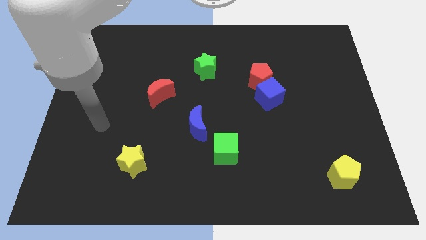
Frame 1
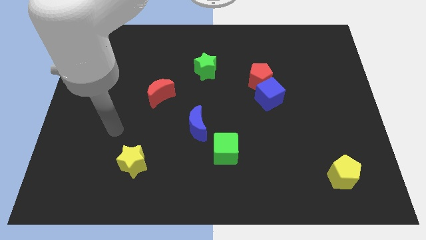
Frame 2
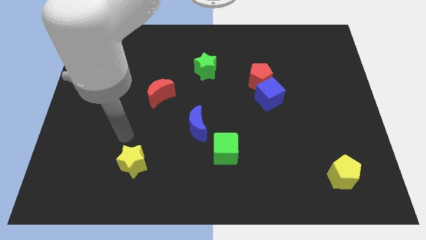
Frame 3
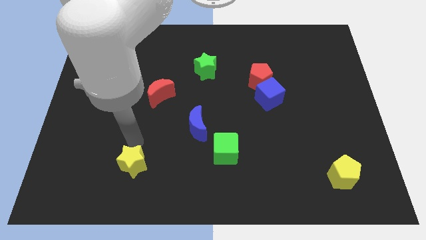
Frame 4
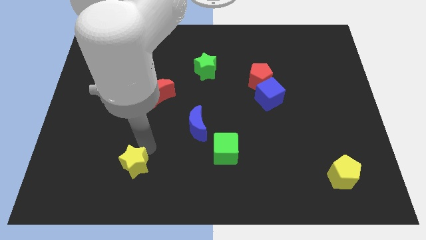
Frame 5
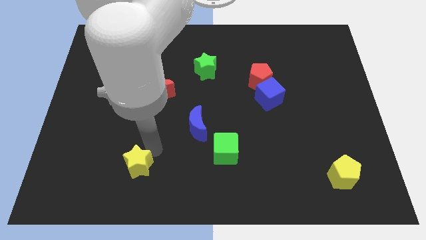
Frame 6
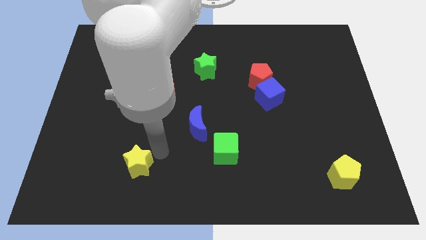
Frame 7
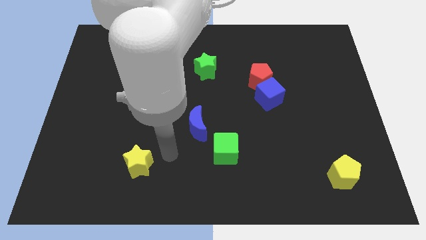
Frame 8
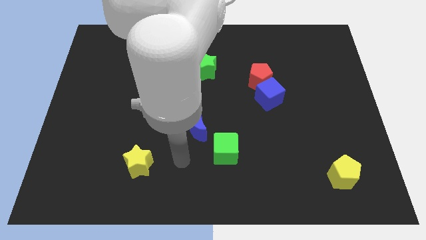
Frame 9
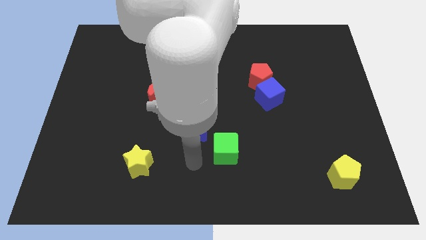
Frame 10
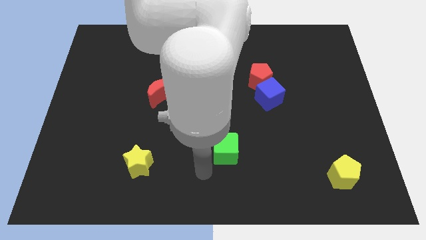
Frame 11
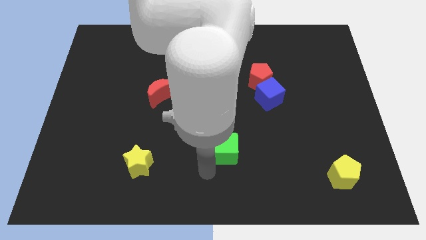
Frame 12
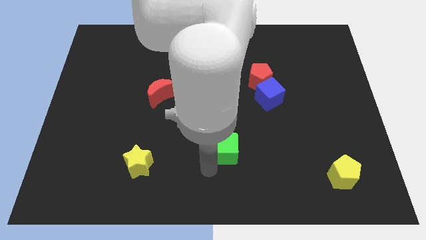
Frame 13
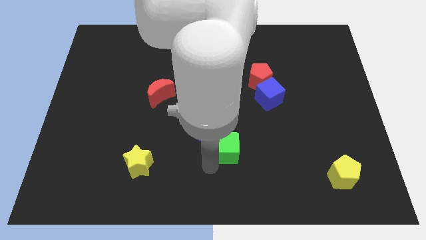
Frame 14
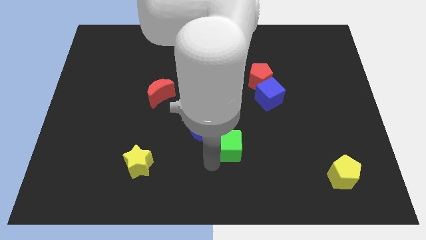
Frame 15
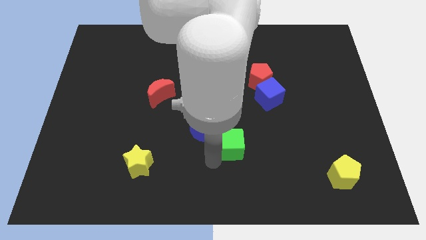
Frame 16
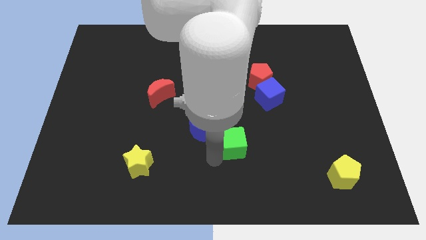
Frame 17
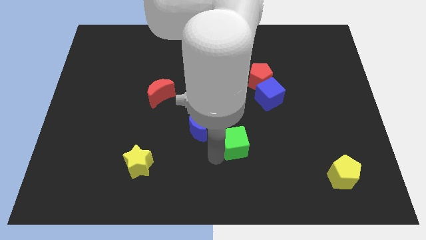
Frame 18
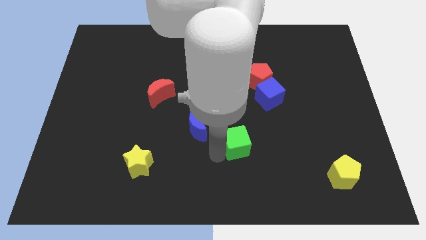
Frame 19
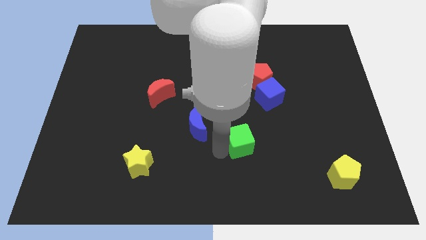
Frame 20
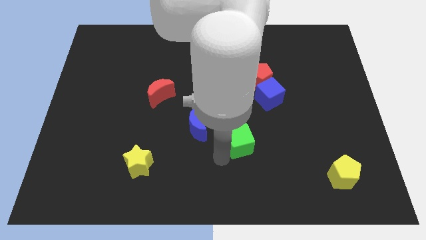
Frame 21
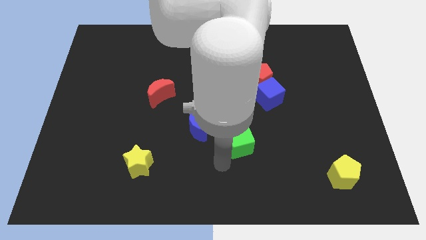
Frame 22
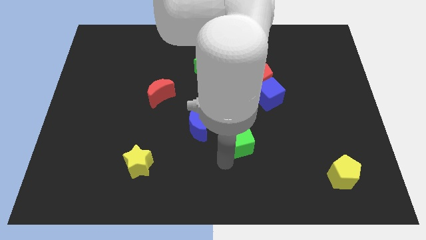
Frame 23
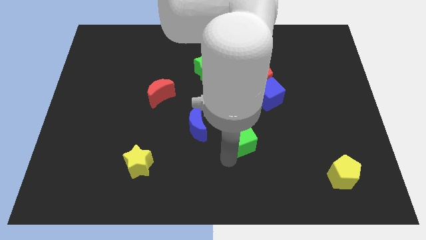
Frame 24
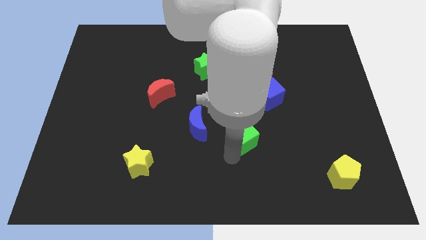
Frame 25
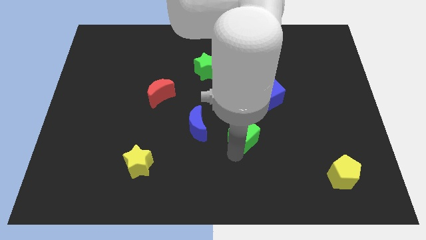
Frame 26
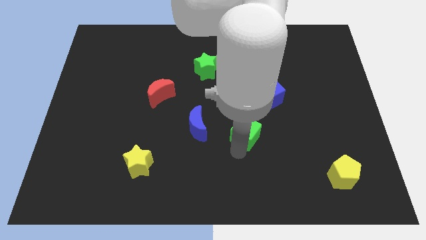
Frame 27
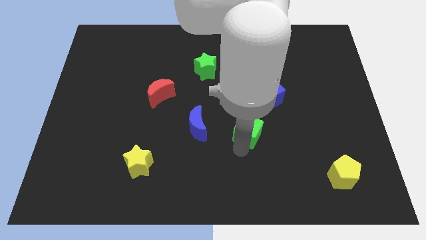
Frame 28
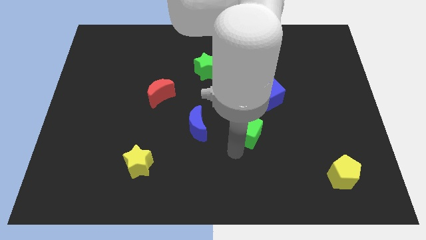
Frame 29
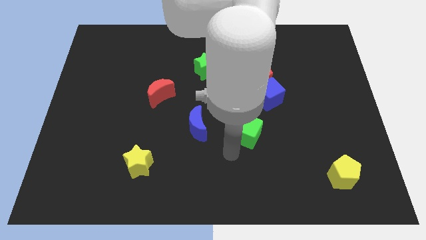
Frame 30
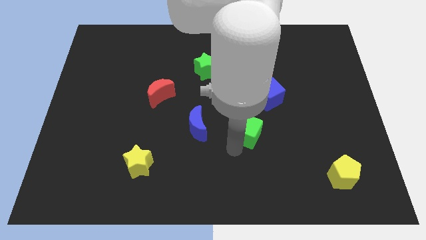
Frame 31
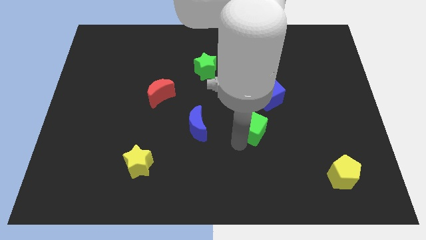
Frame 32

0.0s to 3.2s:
put the green cube to the bottom side of the red pentagon

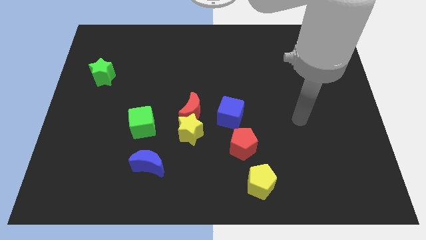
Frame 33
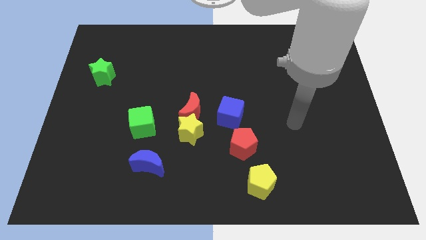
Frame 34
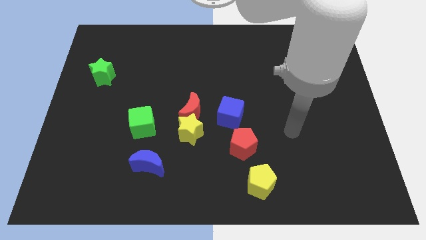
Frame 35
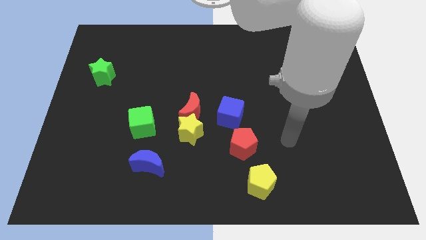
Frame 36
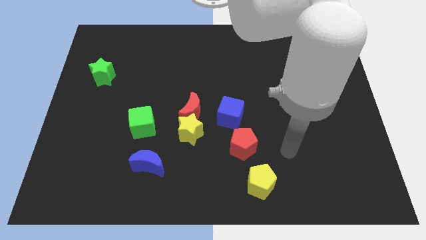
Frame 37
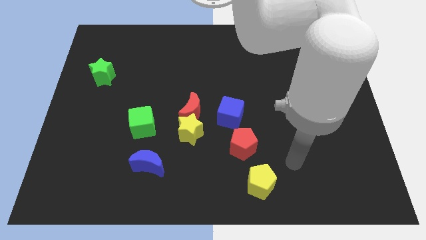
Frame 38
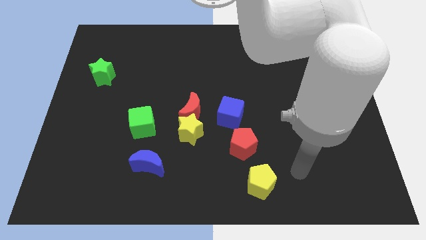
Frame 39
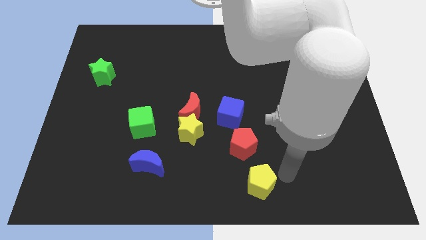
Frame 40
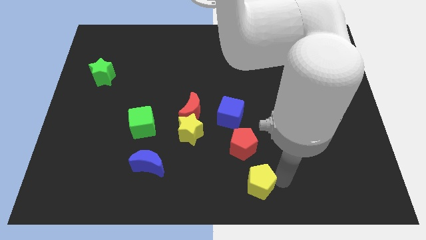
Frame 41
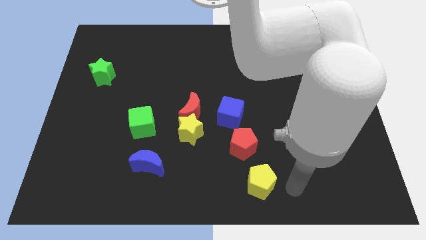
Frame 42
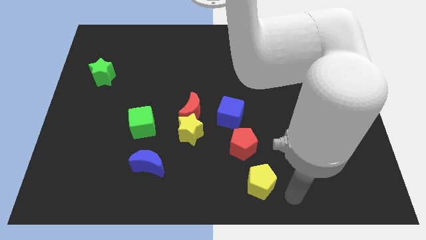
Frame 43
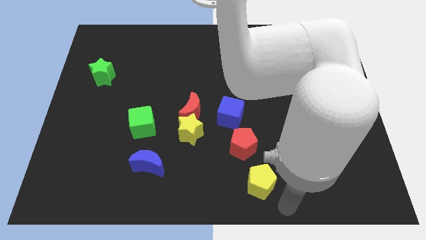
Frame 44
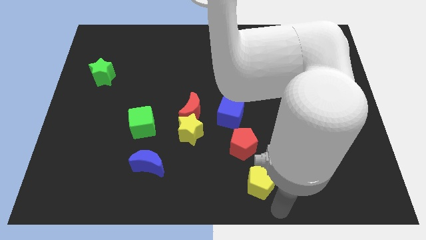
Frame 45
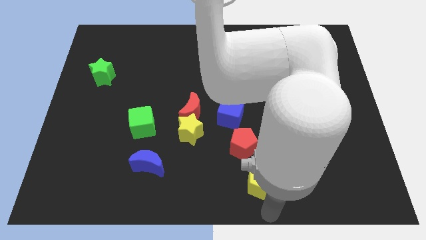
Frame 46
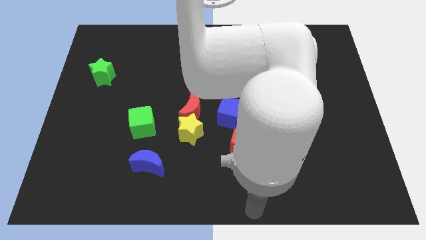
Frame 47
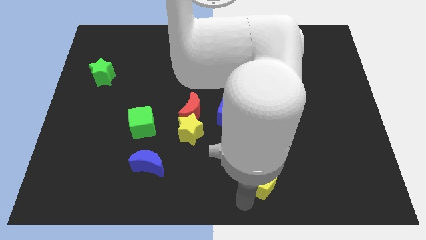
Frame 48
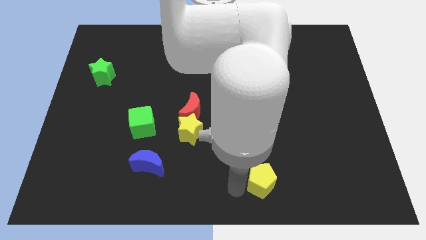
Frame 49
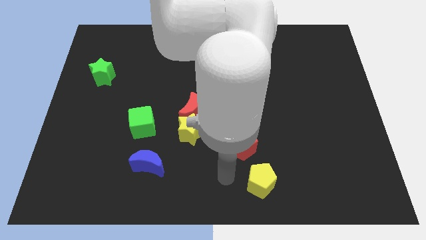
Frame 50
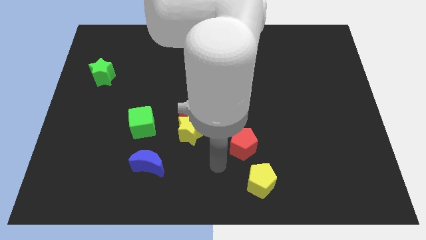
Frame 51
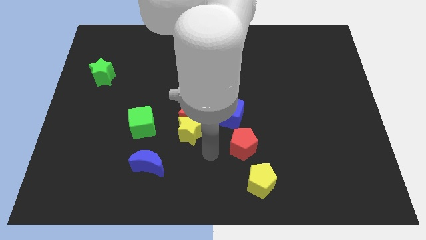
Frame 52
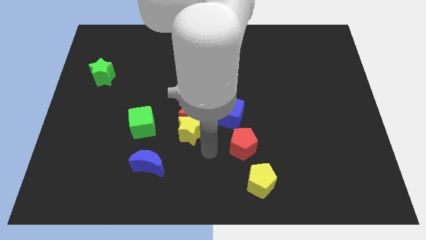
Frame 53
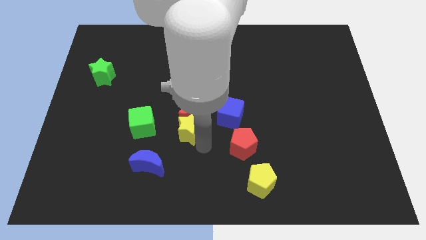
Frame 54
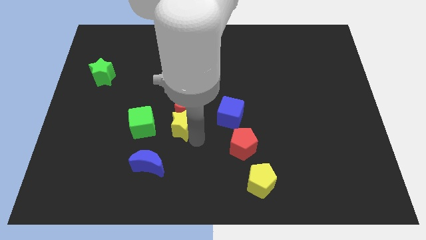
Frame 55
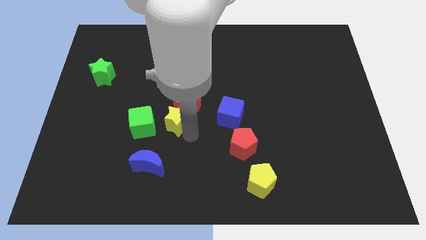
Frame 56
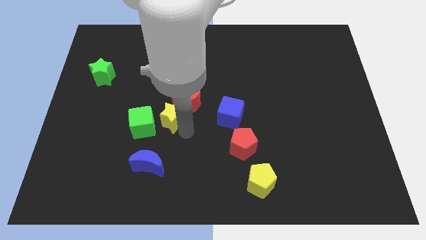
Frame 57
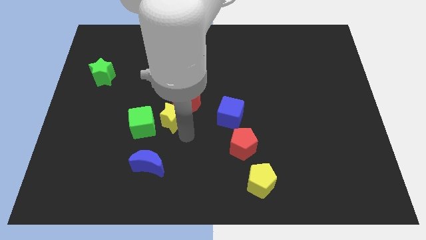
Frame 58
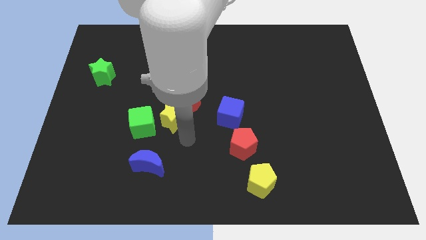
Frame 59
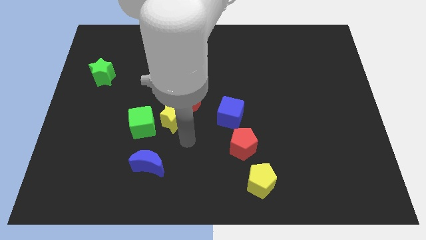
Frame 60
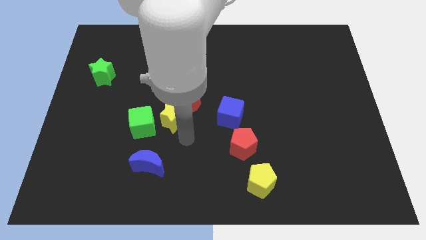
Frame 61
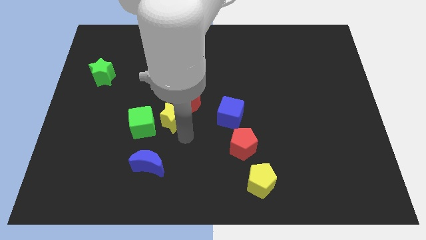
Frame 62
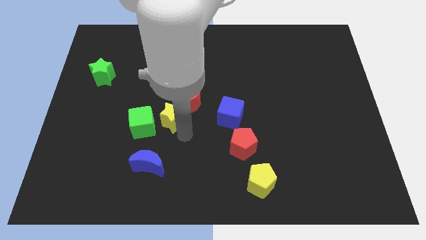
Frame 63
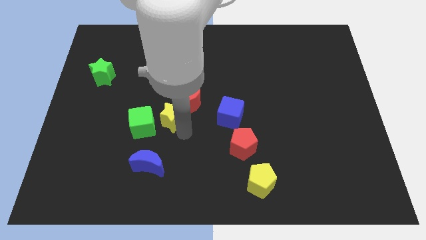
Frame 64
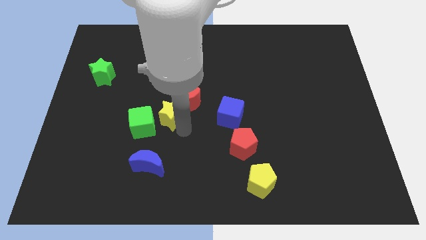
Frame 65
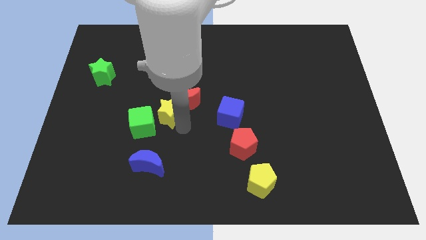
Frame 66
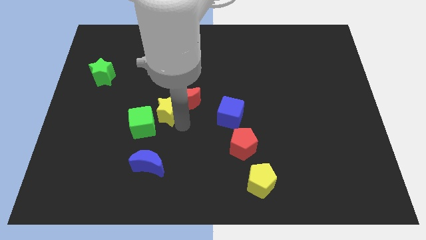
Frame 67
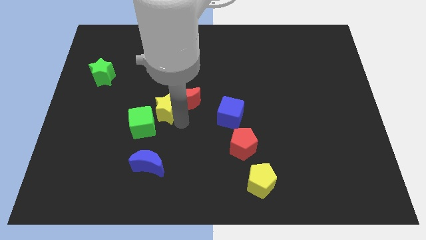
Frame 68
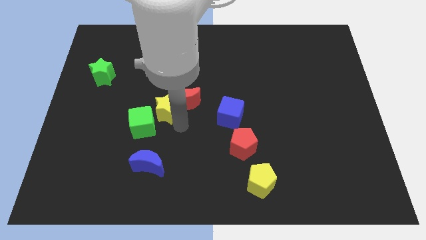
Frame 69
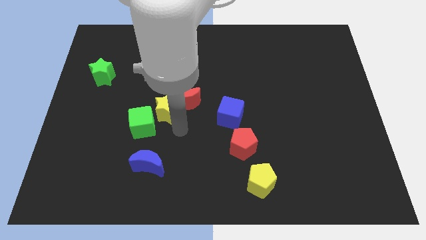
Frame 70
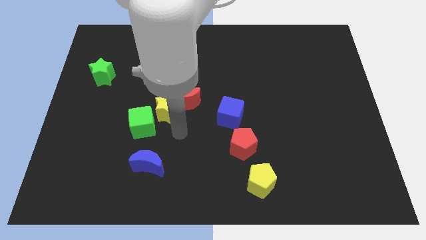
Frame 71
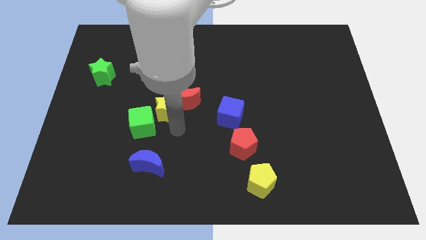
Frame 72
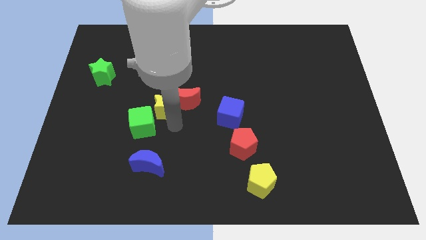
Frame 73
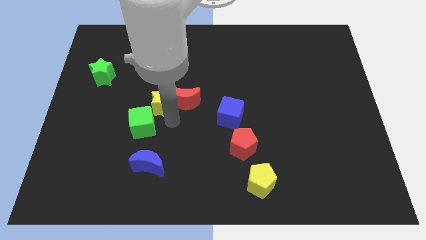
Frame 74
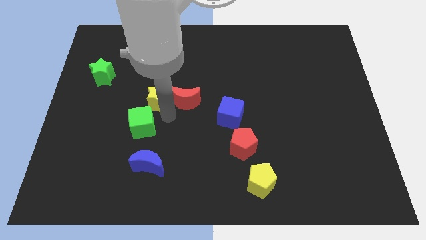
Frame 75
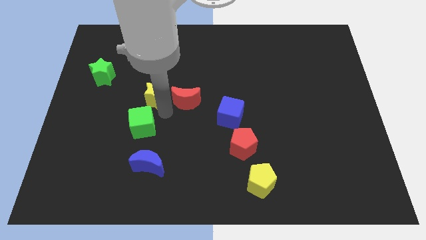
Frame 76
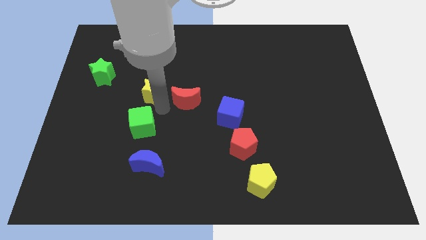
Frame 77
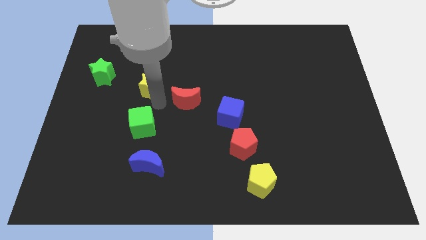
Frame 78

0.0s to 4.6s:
push the yellow star to the right of the green star
